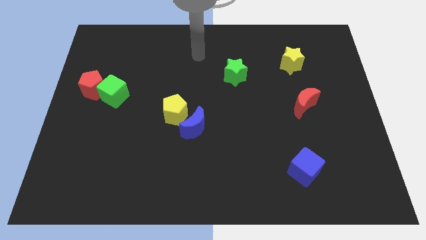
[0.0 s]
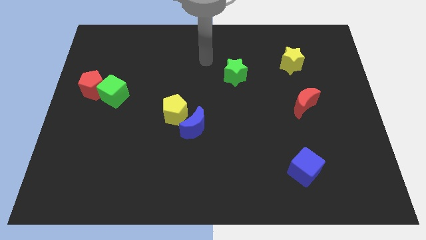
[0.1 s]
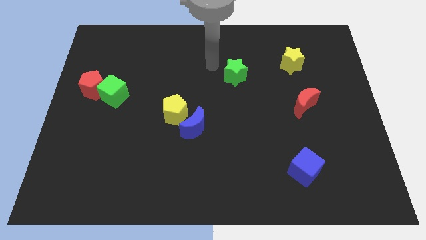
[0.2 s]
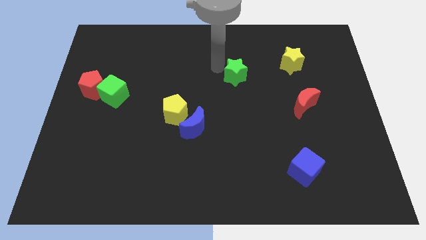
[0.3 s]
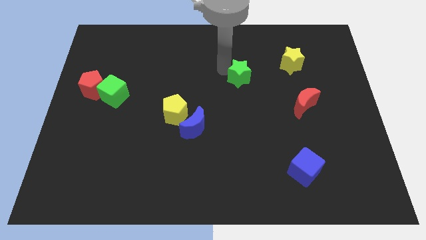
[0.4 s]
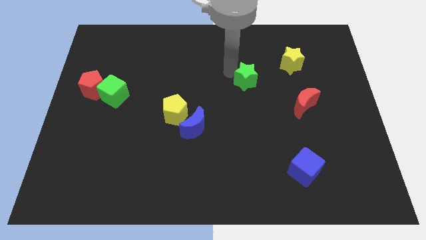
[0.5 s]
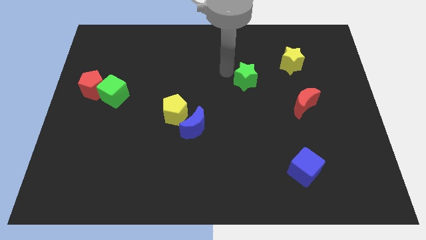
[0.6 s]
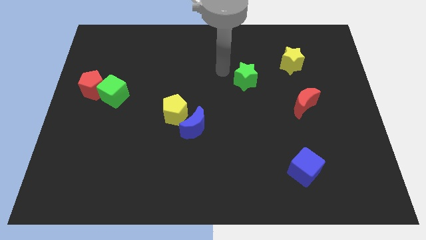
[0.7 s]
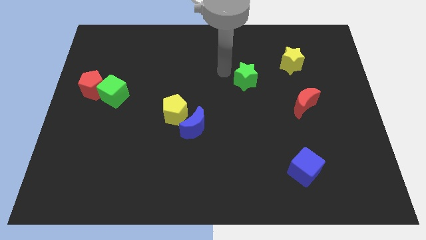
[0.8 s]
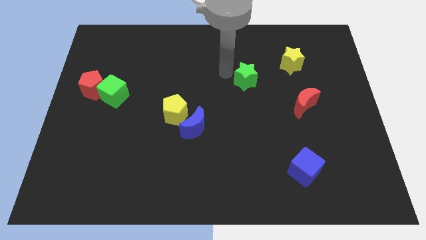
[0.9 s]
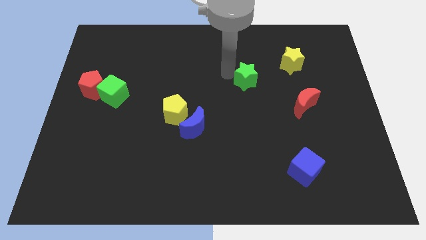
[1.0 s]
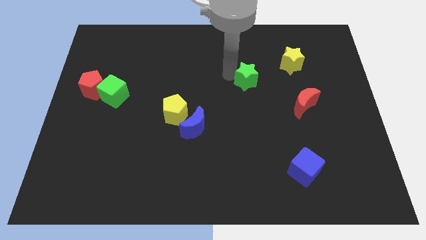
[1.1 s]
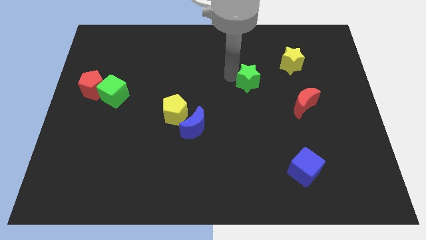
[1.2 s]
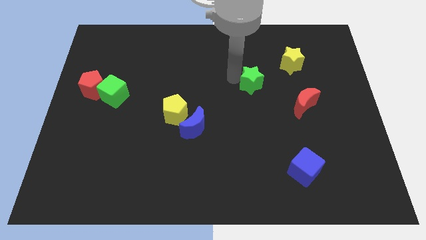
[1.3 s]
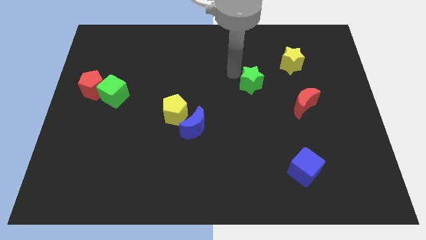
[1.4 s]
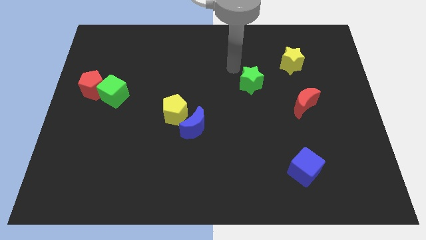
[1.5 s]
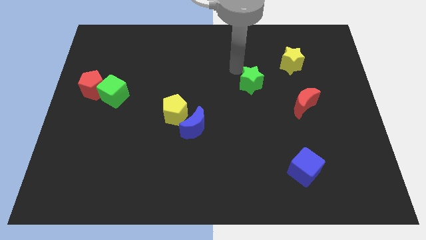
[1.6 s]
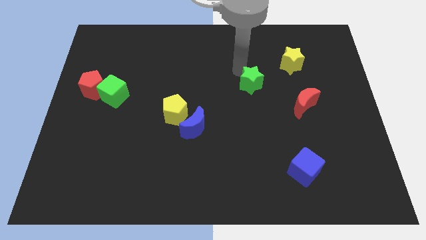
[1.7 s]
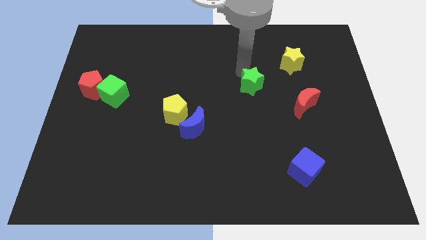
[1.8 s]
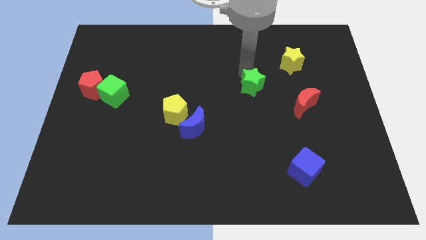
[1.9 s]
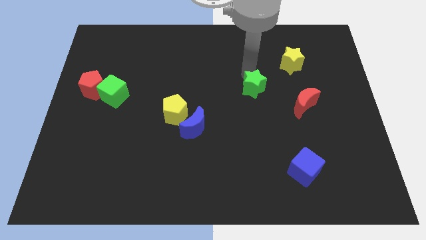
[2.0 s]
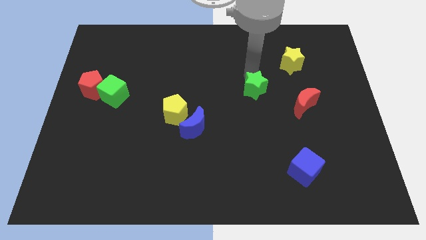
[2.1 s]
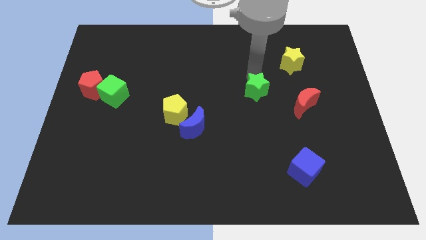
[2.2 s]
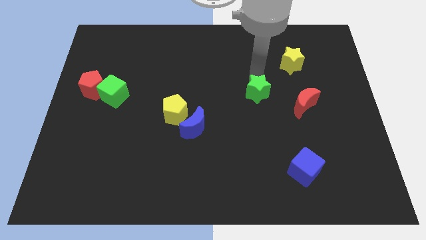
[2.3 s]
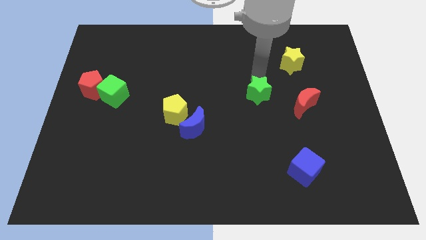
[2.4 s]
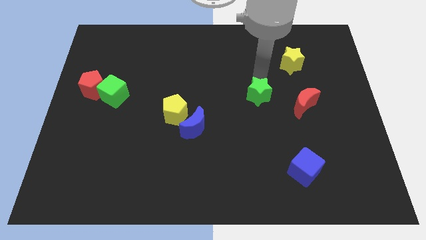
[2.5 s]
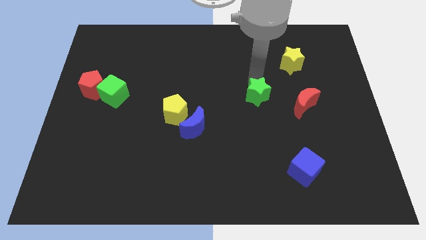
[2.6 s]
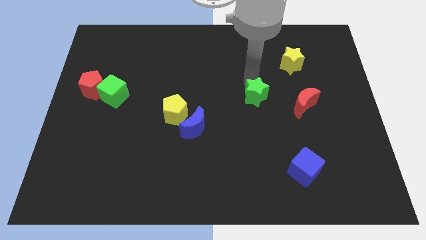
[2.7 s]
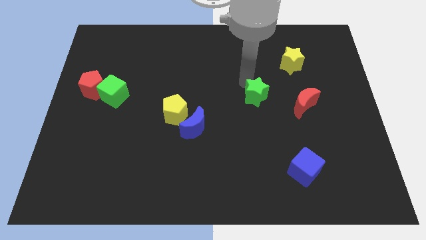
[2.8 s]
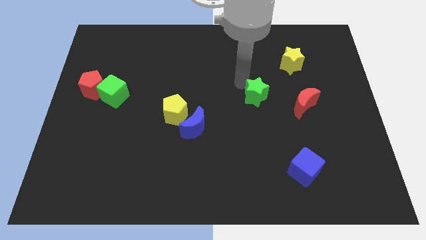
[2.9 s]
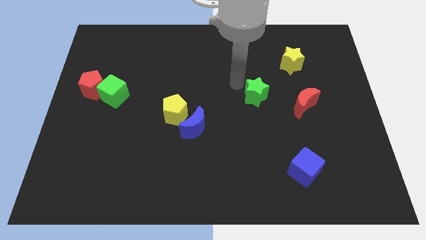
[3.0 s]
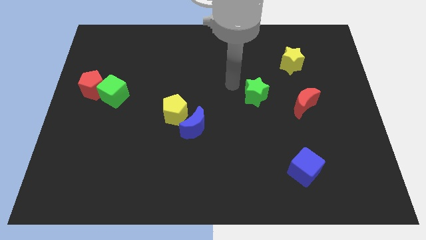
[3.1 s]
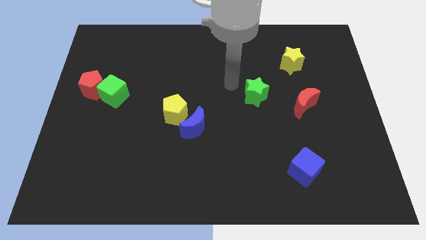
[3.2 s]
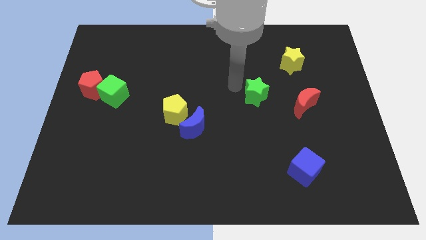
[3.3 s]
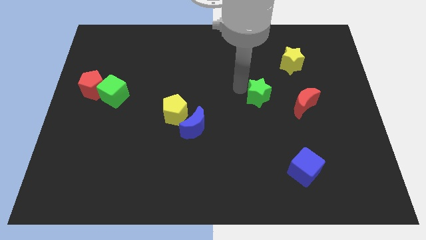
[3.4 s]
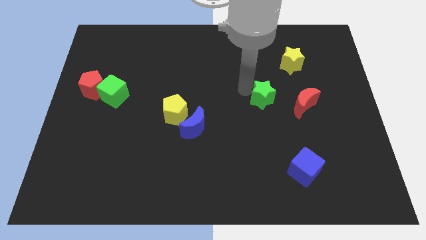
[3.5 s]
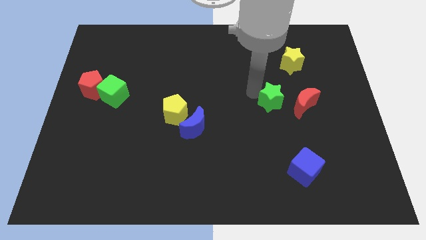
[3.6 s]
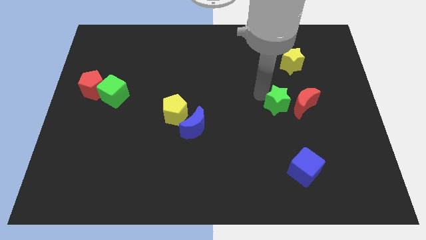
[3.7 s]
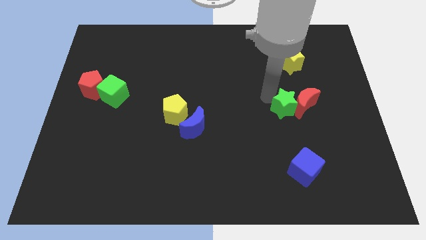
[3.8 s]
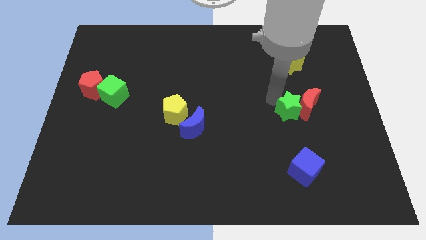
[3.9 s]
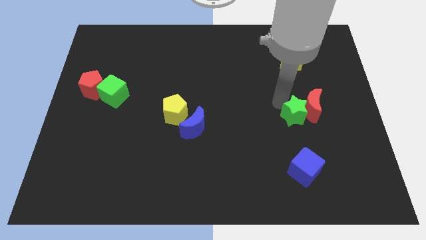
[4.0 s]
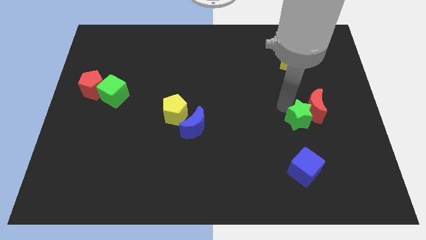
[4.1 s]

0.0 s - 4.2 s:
move the green star diagonally down and right

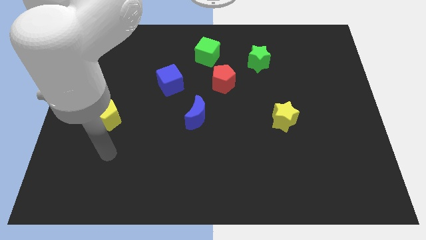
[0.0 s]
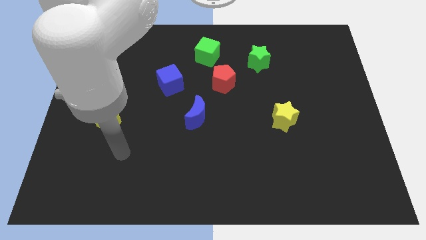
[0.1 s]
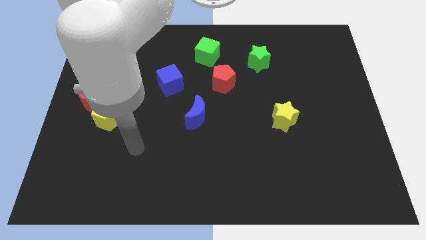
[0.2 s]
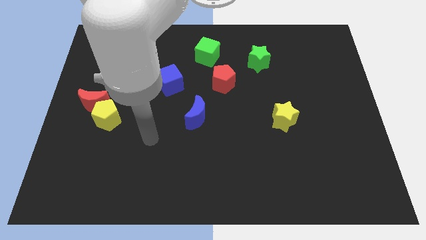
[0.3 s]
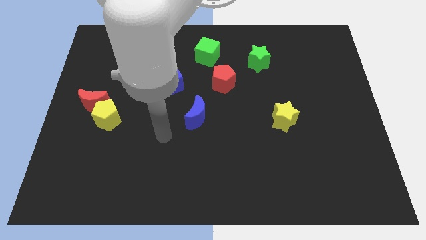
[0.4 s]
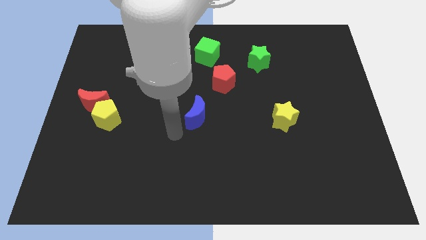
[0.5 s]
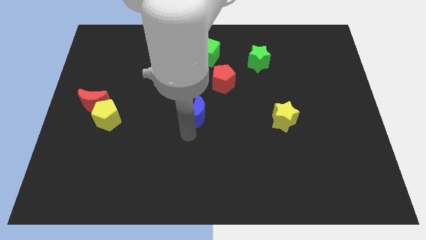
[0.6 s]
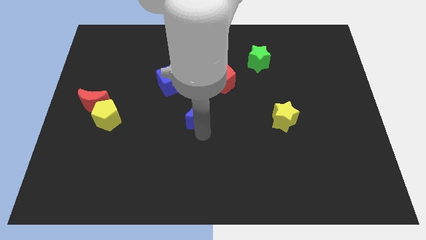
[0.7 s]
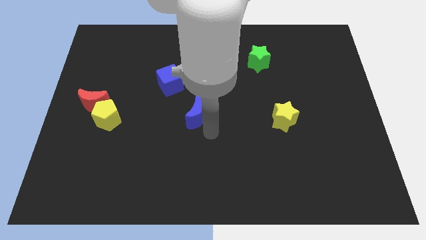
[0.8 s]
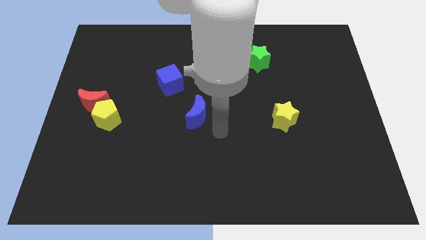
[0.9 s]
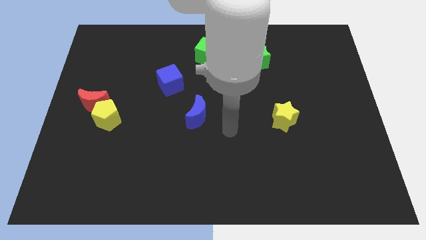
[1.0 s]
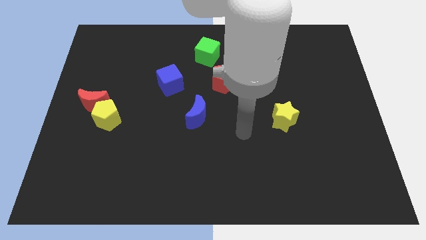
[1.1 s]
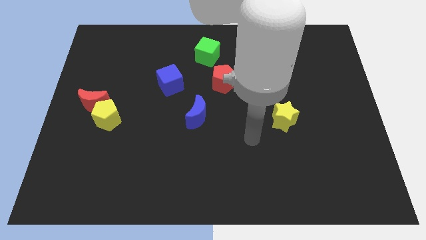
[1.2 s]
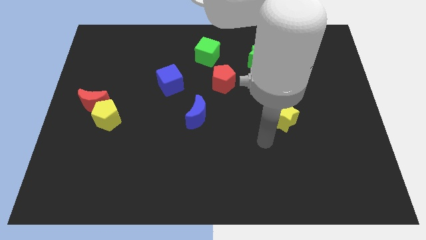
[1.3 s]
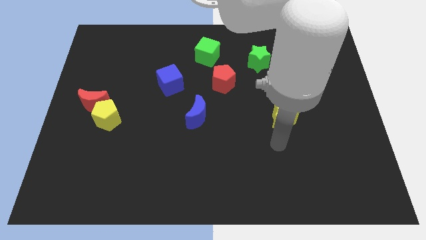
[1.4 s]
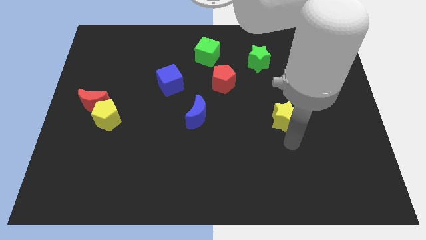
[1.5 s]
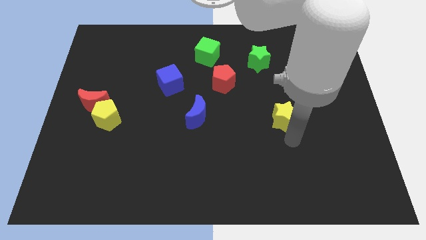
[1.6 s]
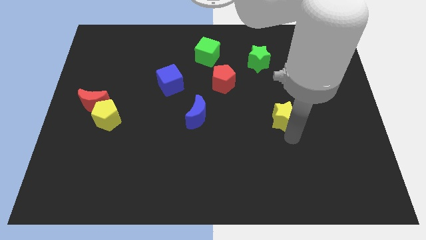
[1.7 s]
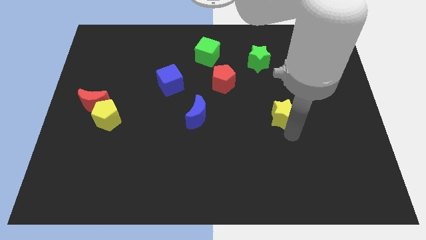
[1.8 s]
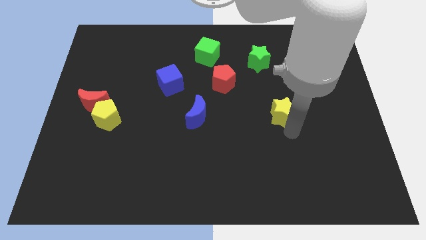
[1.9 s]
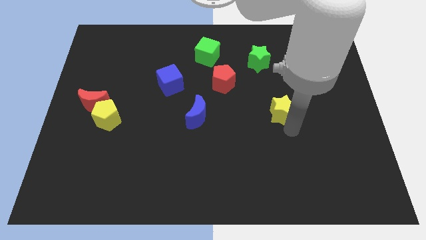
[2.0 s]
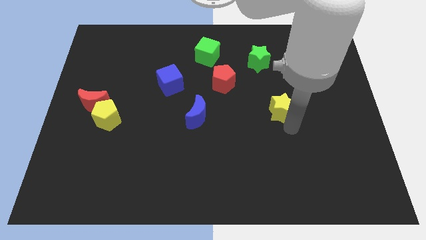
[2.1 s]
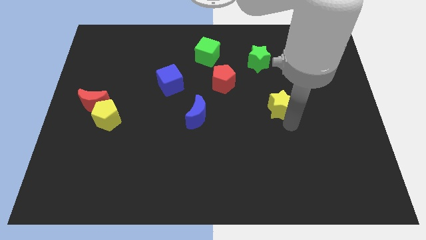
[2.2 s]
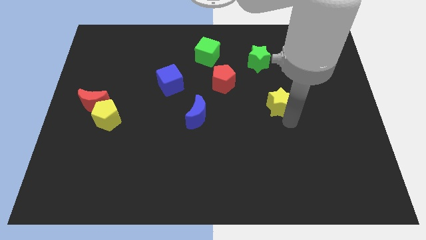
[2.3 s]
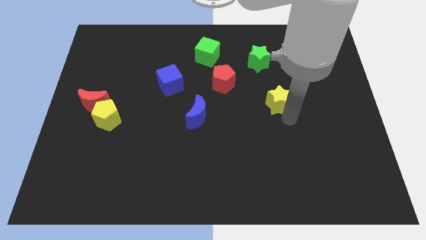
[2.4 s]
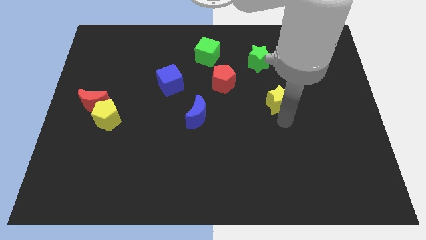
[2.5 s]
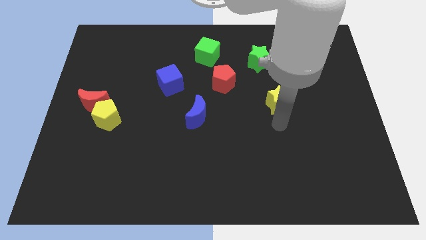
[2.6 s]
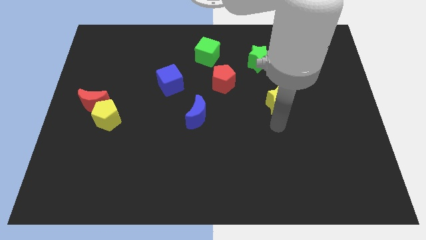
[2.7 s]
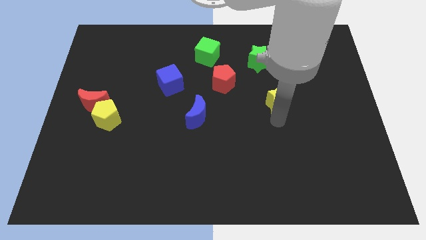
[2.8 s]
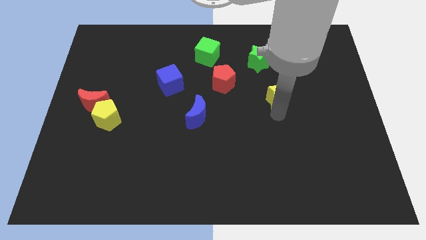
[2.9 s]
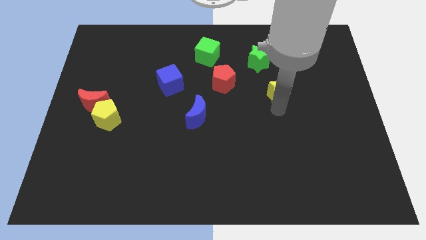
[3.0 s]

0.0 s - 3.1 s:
slide the yellow star a bit up

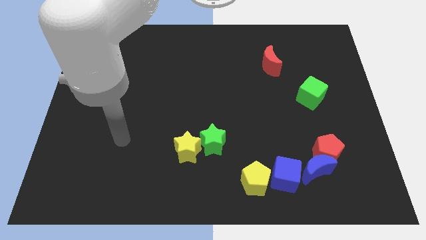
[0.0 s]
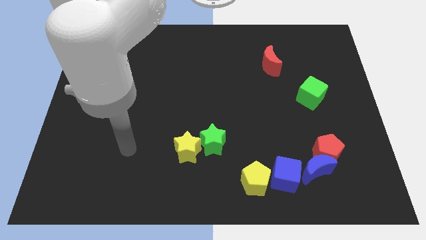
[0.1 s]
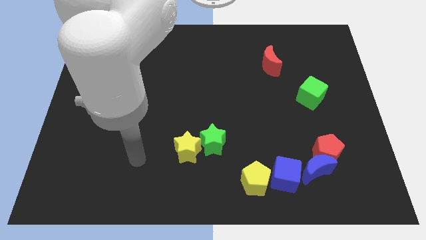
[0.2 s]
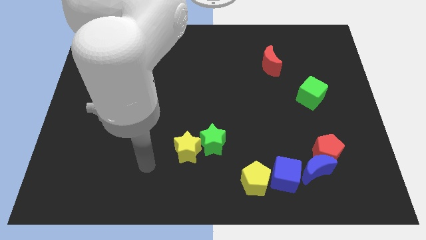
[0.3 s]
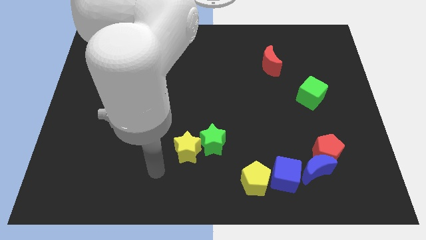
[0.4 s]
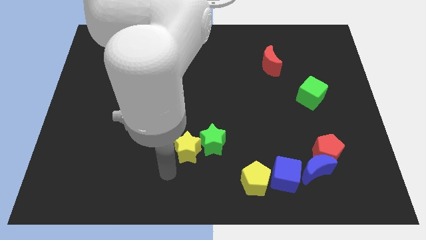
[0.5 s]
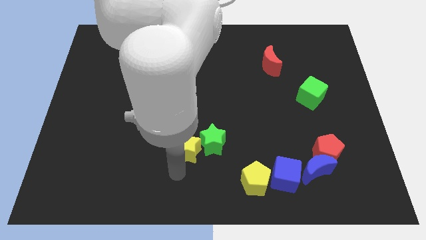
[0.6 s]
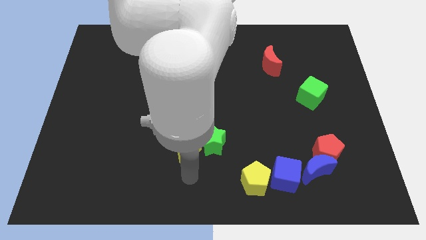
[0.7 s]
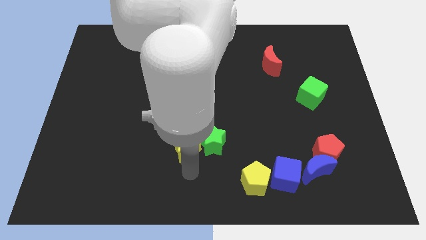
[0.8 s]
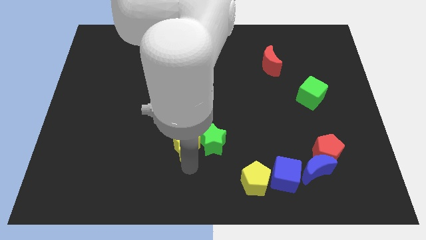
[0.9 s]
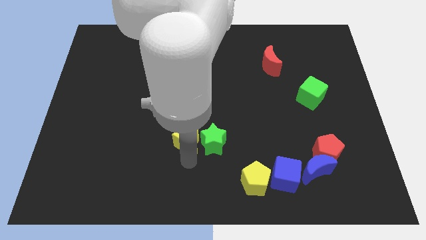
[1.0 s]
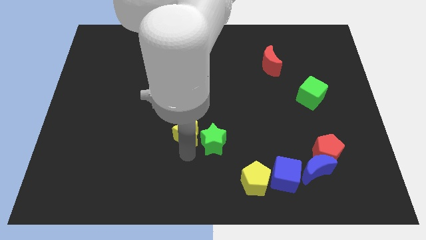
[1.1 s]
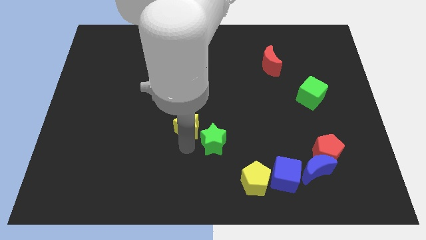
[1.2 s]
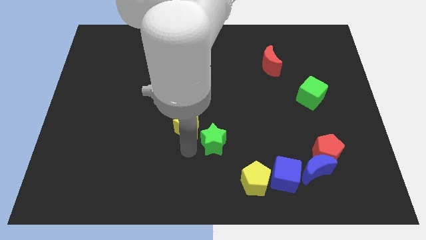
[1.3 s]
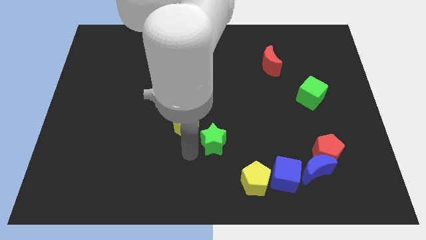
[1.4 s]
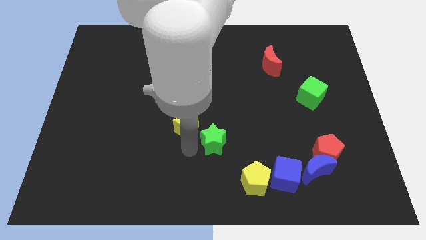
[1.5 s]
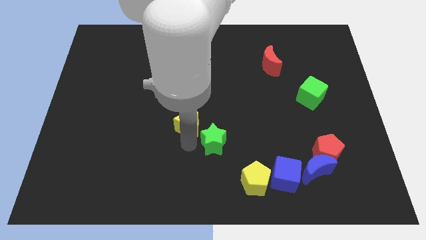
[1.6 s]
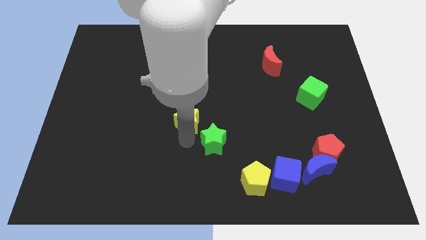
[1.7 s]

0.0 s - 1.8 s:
slightly move the yellow star up
